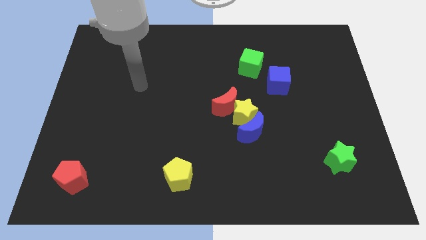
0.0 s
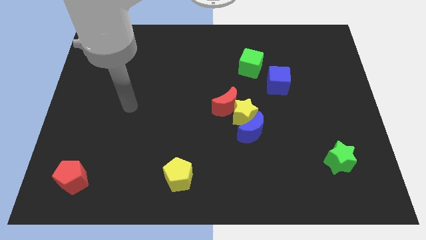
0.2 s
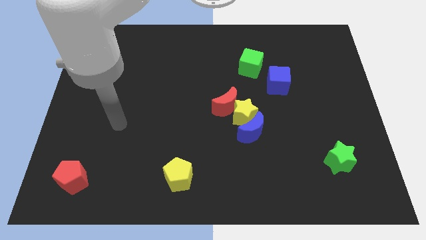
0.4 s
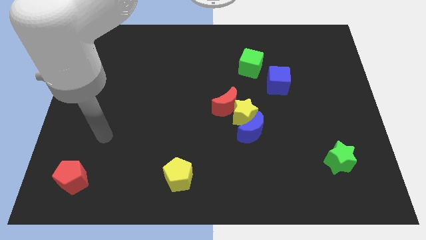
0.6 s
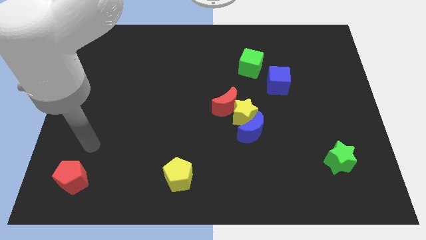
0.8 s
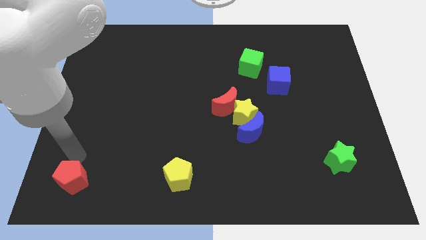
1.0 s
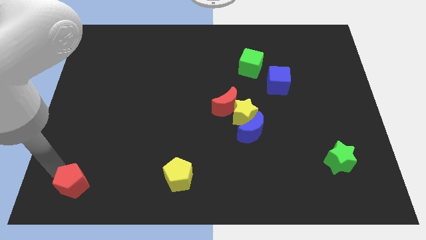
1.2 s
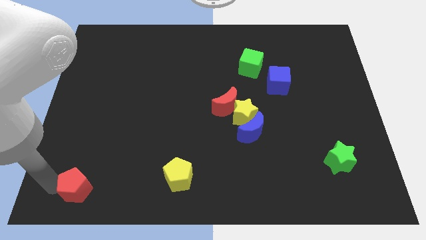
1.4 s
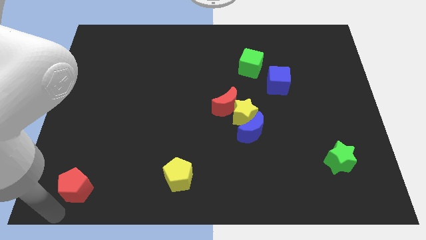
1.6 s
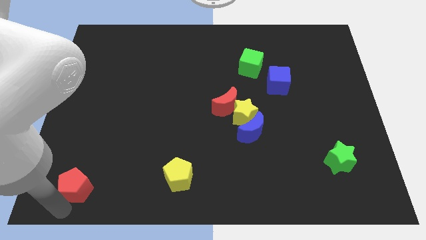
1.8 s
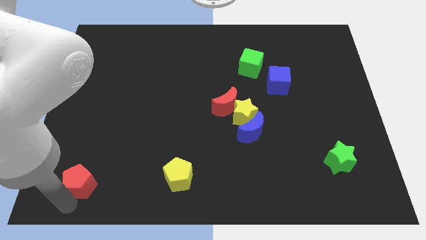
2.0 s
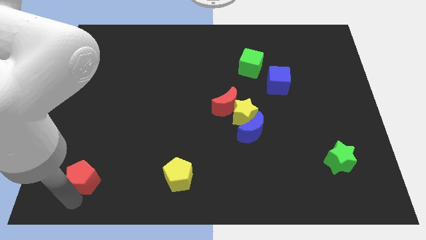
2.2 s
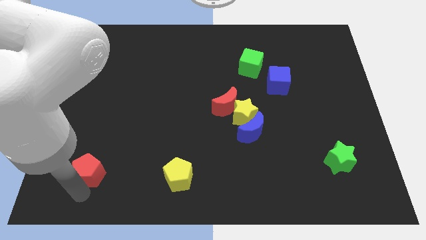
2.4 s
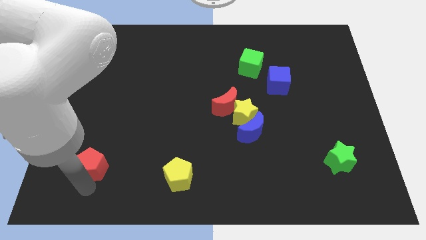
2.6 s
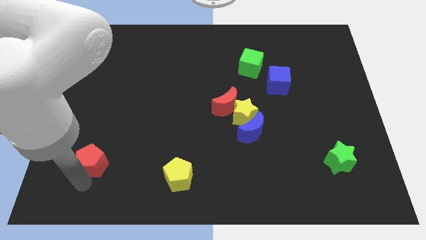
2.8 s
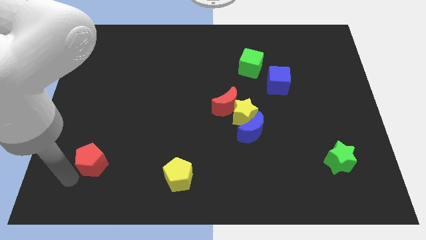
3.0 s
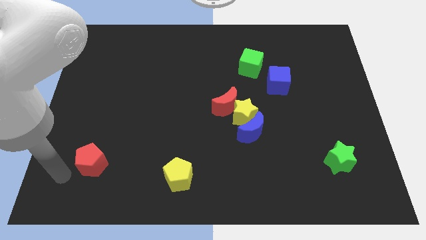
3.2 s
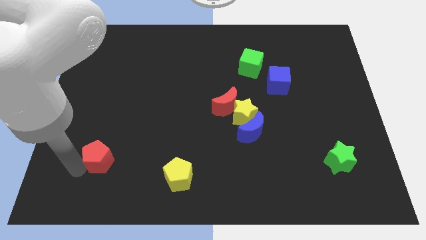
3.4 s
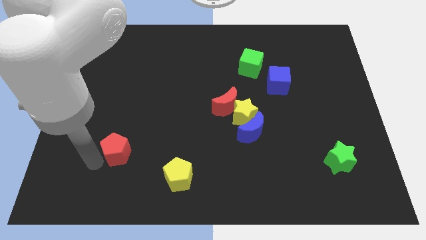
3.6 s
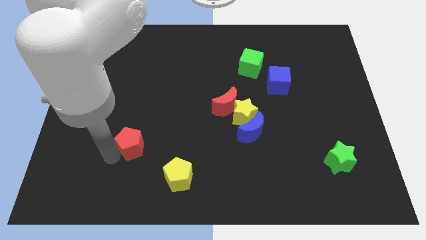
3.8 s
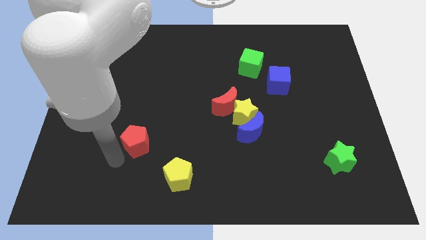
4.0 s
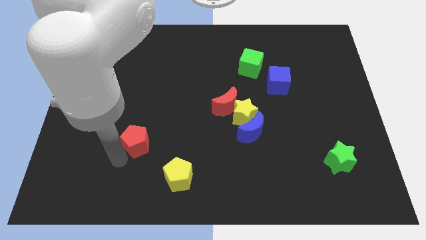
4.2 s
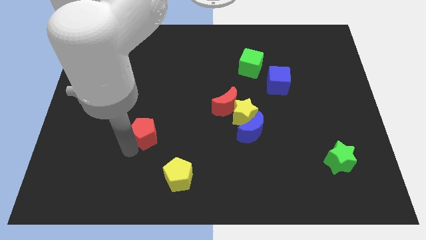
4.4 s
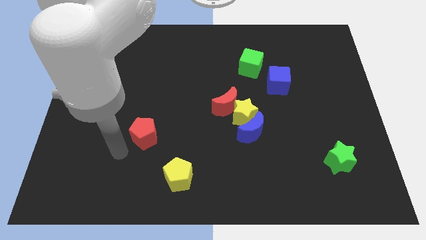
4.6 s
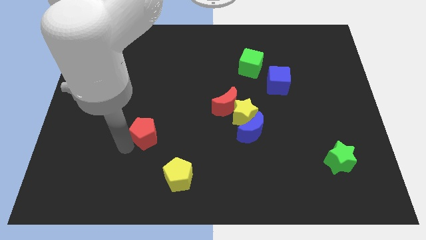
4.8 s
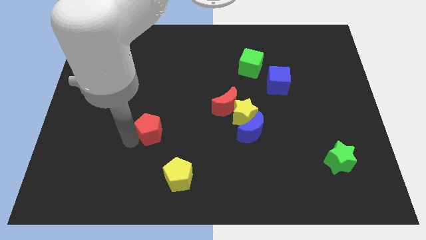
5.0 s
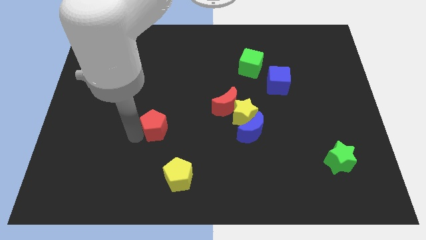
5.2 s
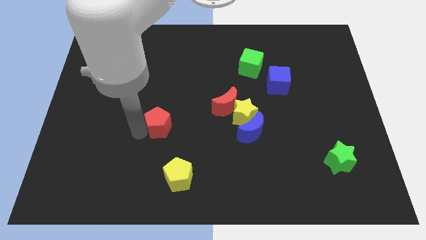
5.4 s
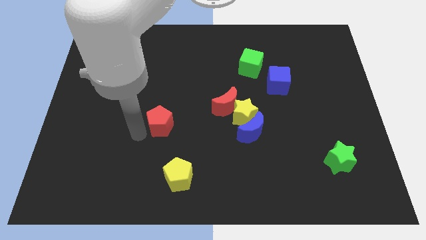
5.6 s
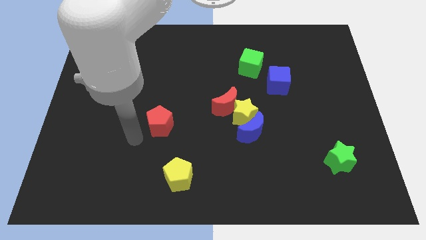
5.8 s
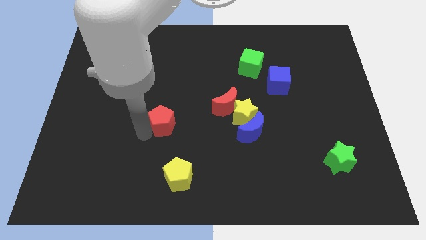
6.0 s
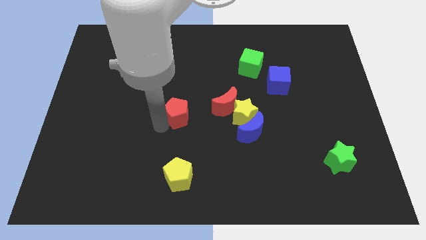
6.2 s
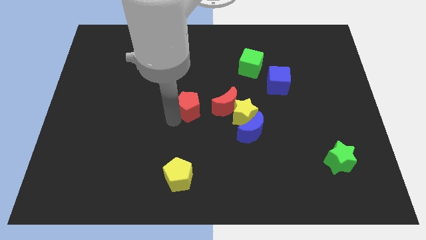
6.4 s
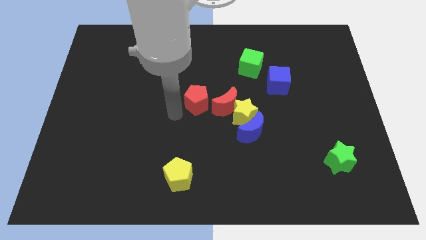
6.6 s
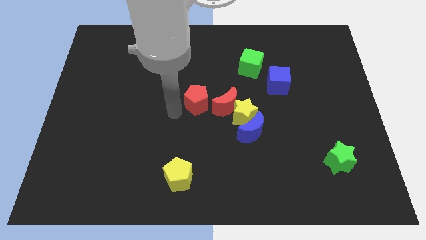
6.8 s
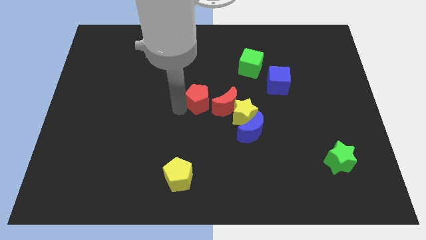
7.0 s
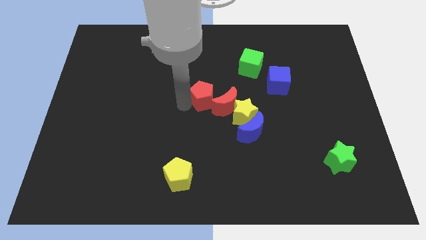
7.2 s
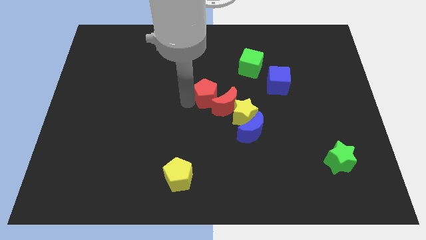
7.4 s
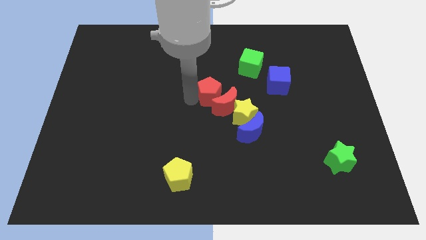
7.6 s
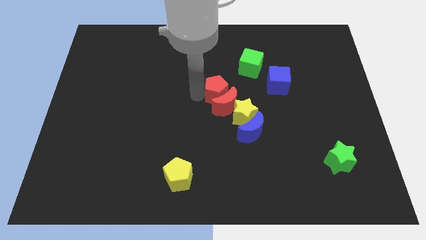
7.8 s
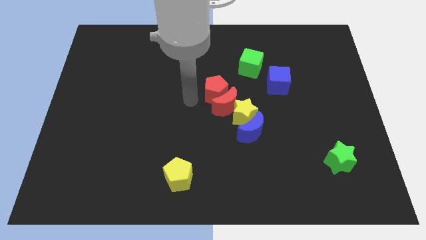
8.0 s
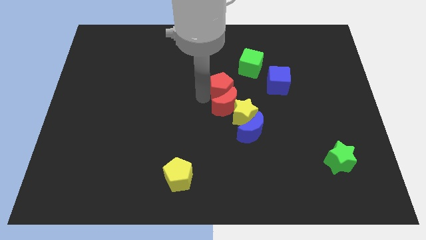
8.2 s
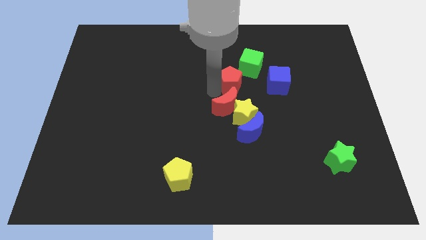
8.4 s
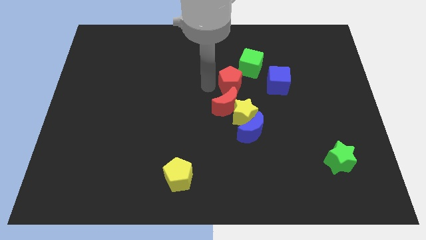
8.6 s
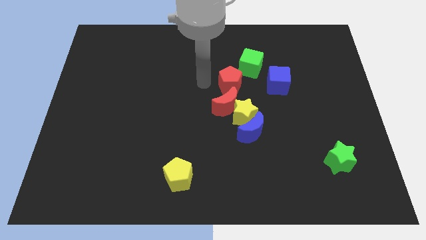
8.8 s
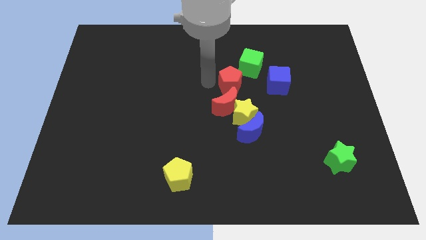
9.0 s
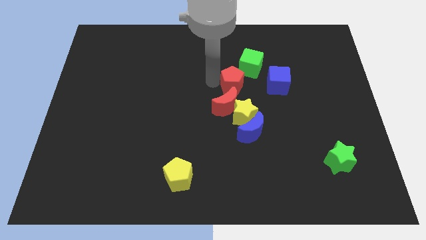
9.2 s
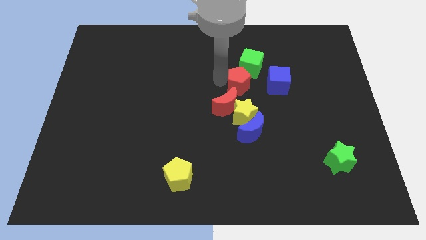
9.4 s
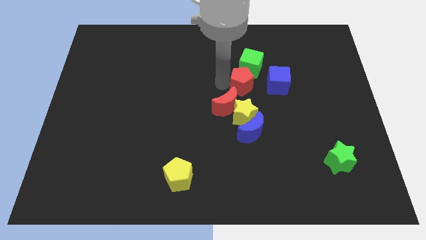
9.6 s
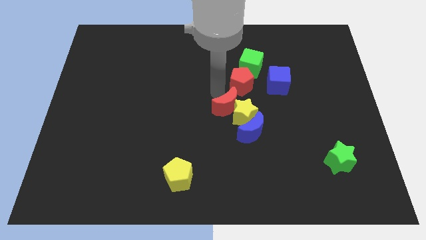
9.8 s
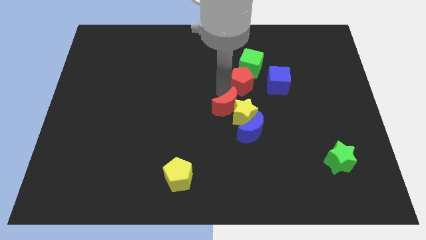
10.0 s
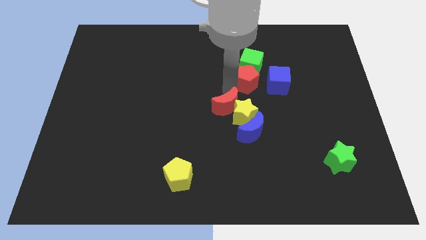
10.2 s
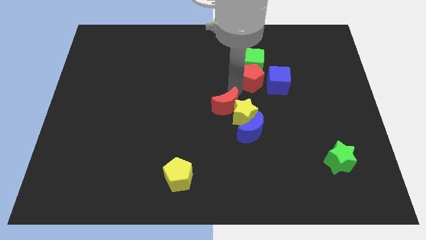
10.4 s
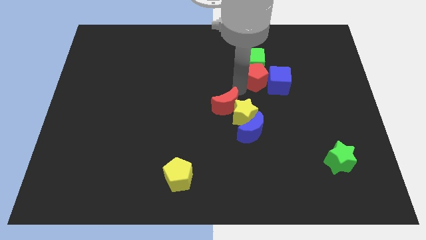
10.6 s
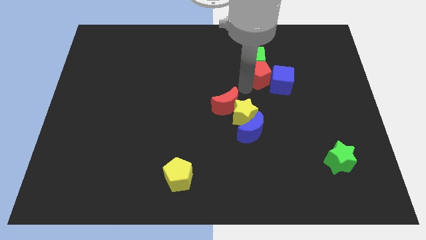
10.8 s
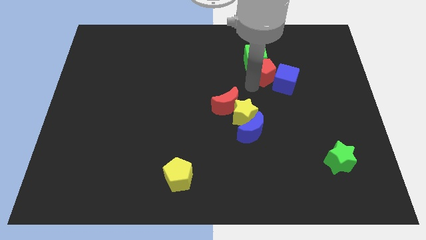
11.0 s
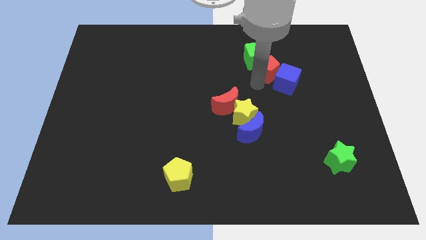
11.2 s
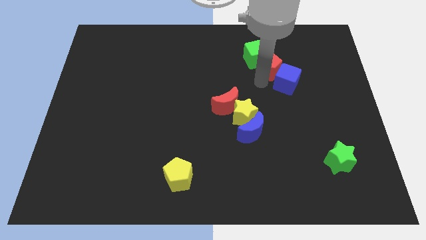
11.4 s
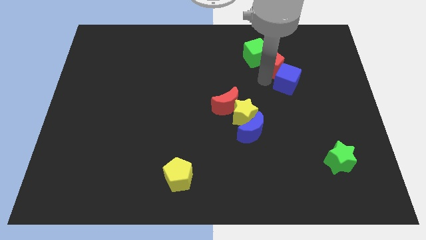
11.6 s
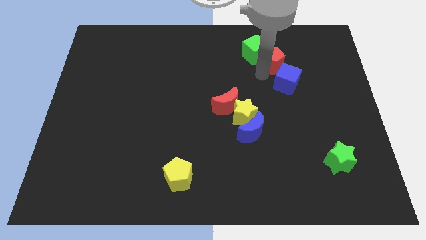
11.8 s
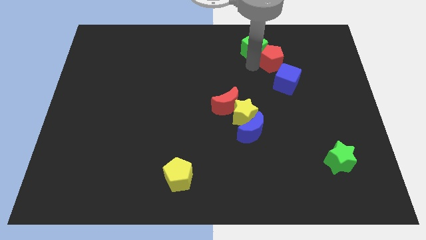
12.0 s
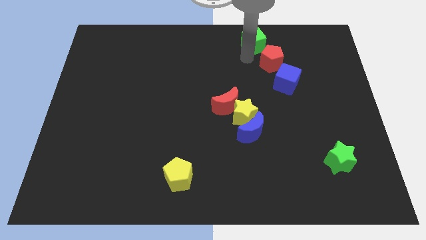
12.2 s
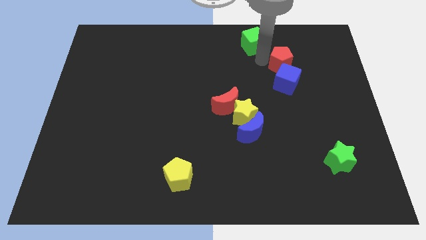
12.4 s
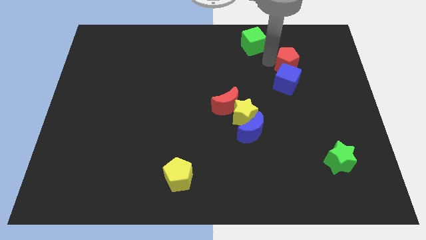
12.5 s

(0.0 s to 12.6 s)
put the red pentagon diagonally up and to the right of the blue cube

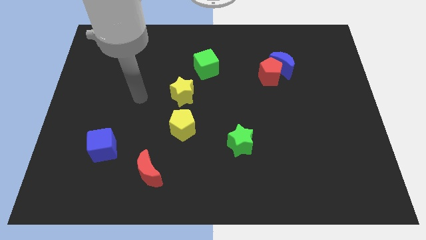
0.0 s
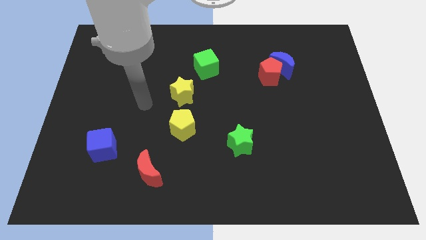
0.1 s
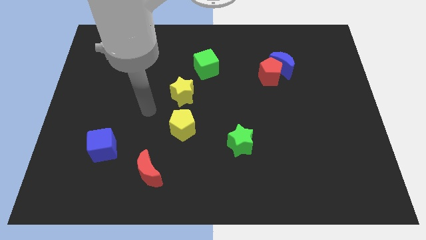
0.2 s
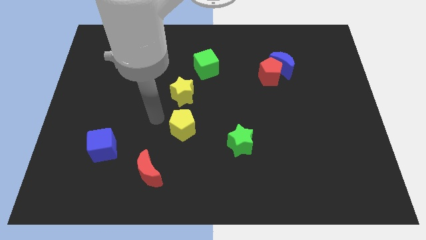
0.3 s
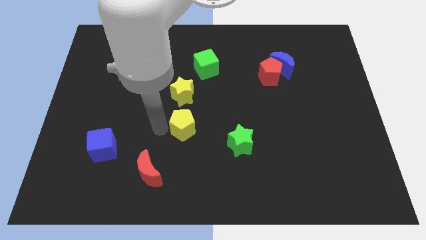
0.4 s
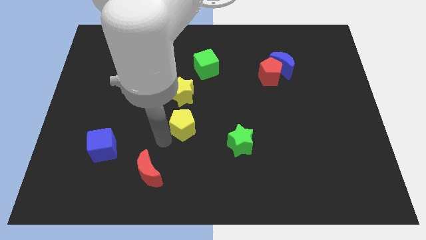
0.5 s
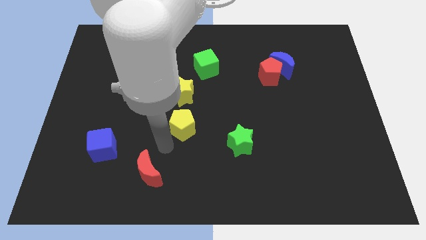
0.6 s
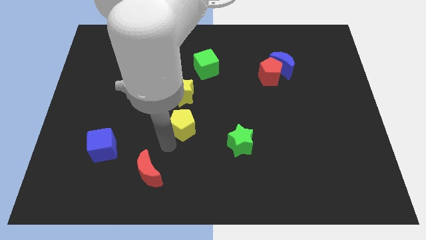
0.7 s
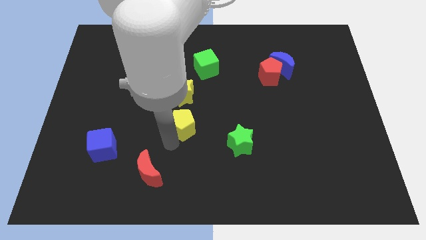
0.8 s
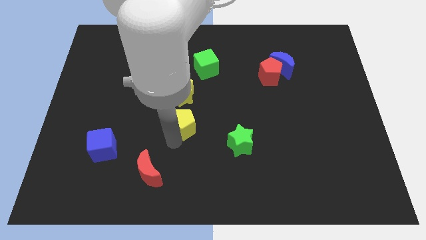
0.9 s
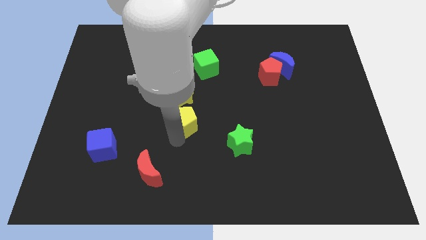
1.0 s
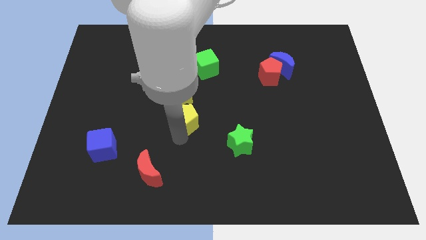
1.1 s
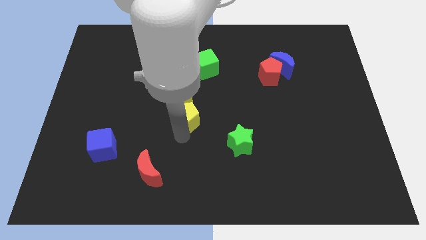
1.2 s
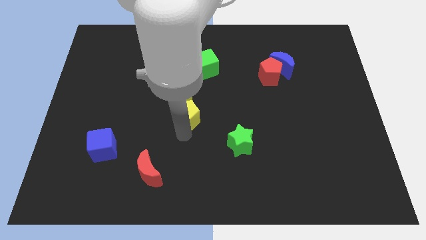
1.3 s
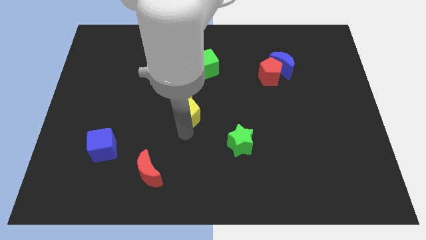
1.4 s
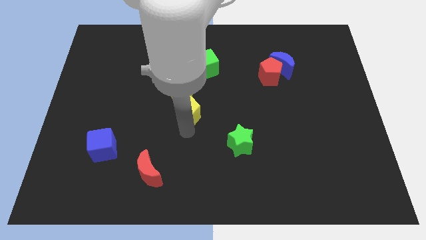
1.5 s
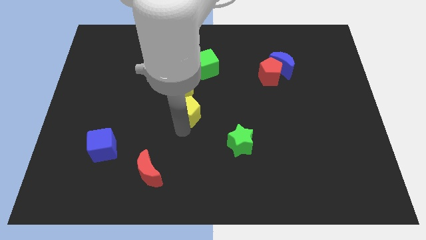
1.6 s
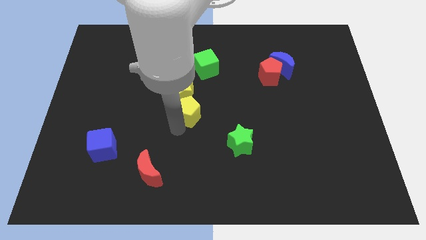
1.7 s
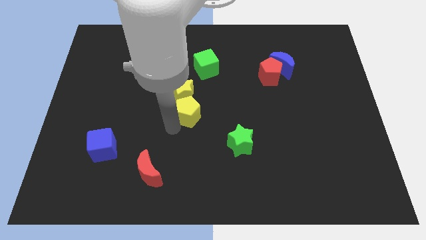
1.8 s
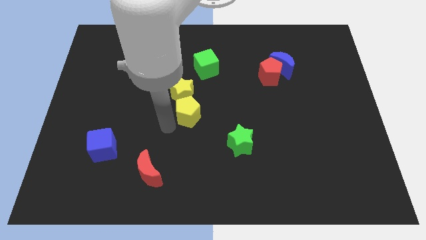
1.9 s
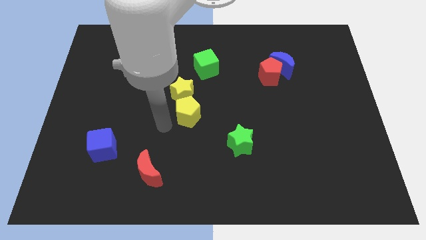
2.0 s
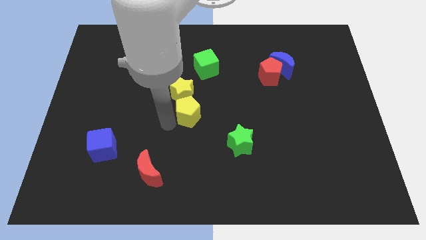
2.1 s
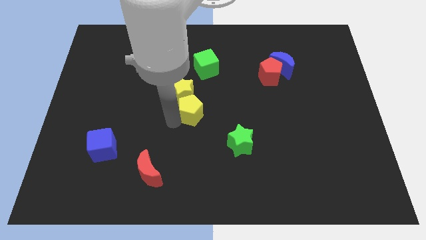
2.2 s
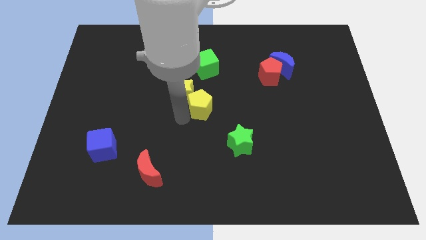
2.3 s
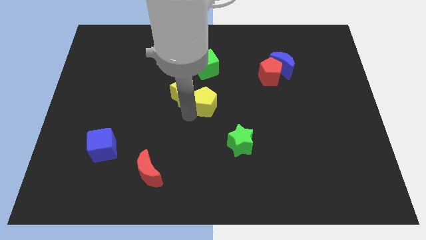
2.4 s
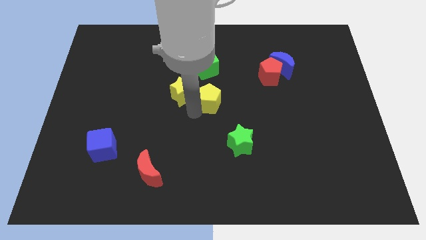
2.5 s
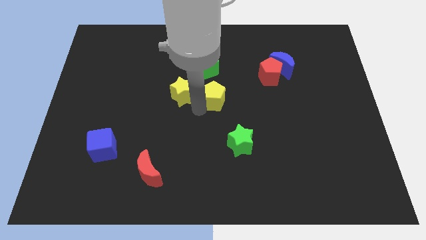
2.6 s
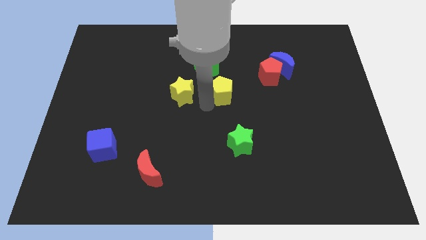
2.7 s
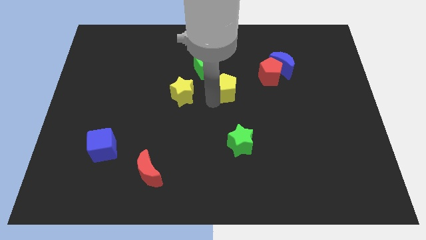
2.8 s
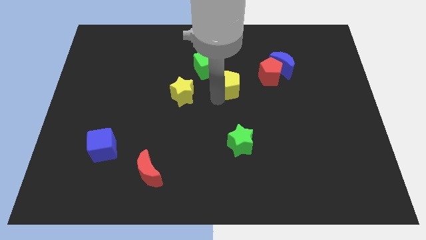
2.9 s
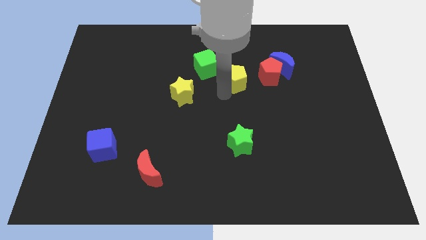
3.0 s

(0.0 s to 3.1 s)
slide the yellow pentagon just left of the blue moon
